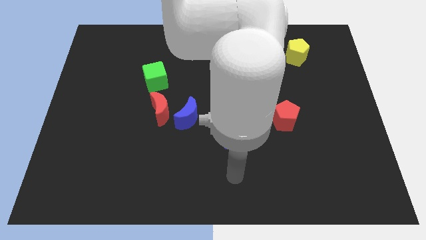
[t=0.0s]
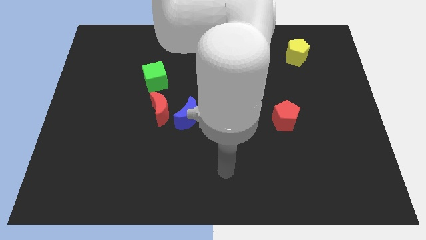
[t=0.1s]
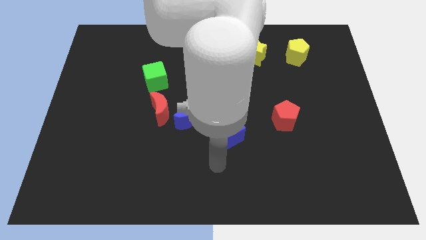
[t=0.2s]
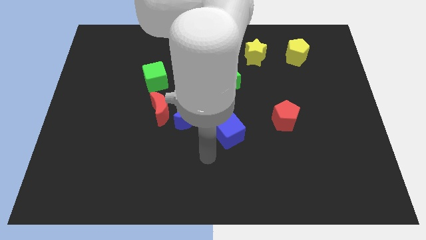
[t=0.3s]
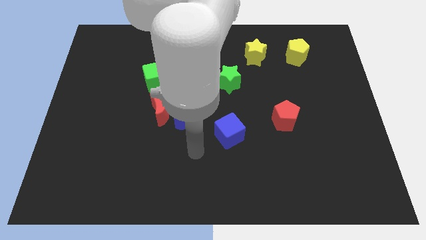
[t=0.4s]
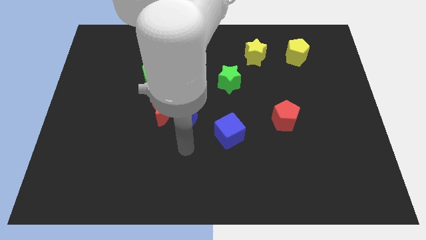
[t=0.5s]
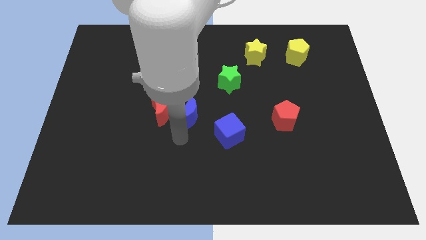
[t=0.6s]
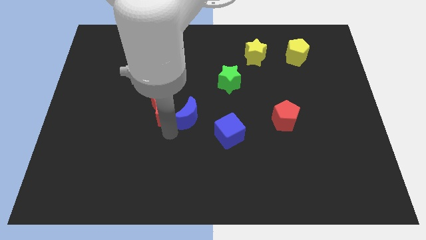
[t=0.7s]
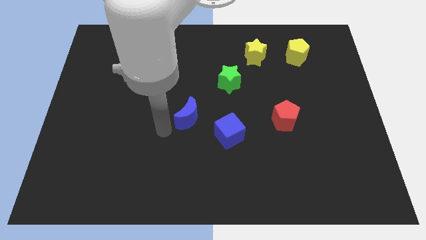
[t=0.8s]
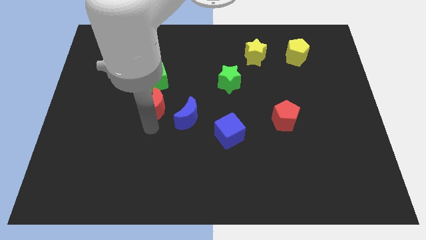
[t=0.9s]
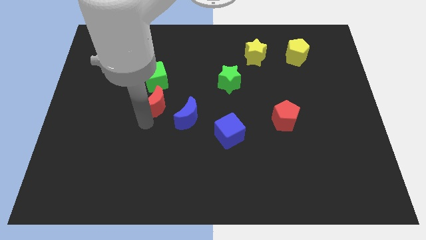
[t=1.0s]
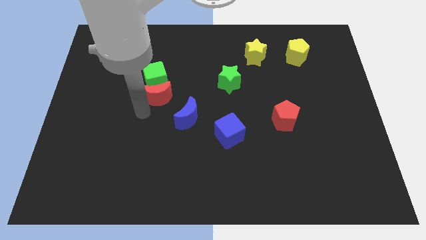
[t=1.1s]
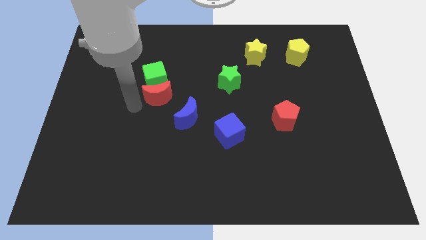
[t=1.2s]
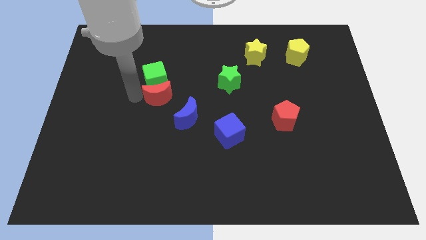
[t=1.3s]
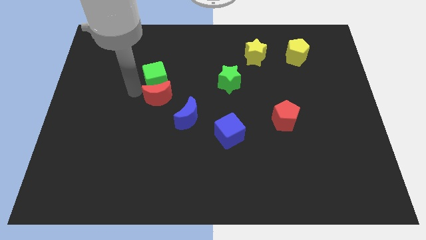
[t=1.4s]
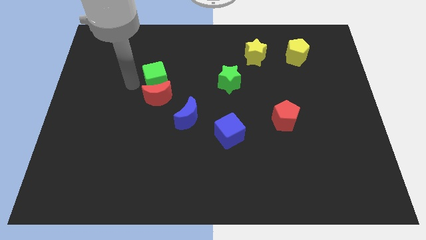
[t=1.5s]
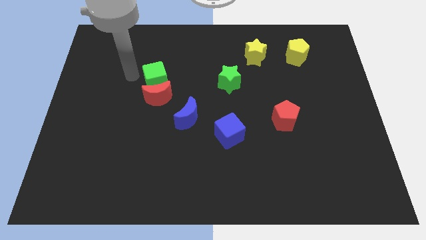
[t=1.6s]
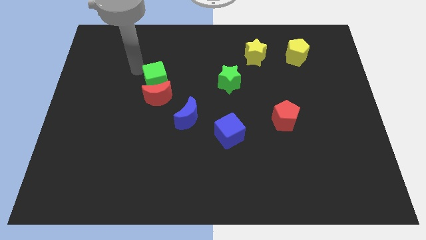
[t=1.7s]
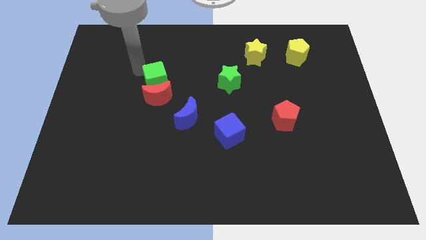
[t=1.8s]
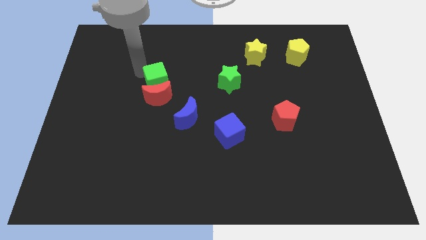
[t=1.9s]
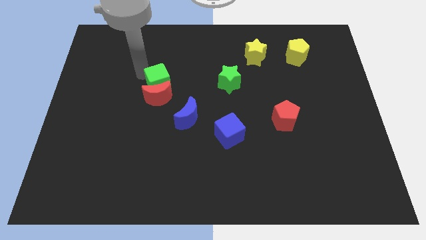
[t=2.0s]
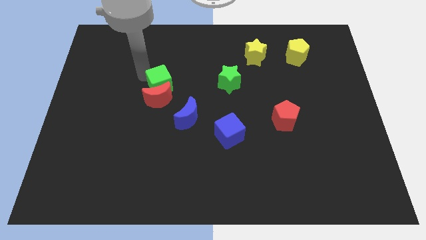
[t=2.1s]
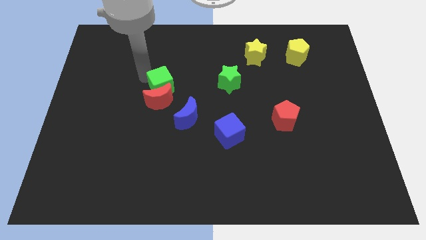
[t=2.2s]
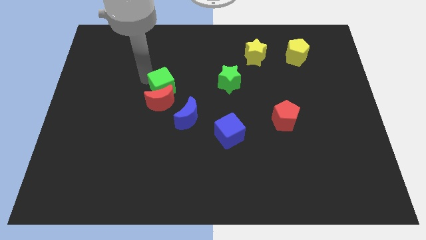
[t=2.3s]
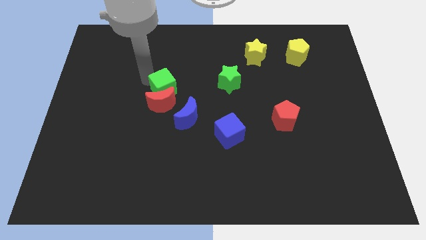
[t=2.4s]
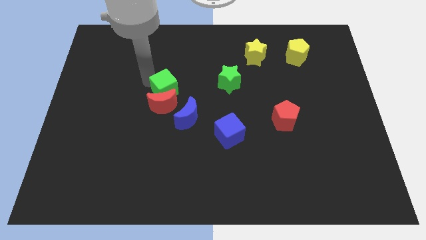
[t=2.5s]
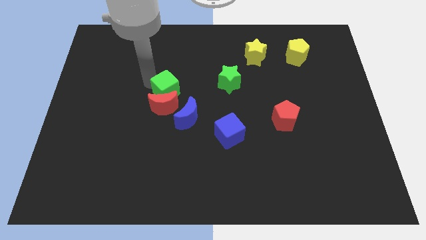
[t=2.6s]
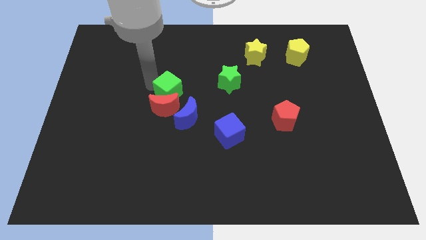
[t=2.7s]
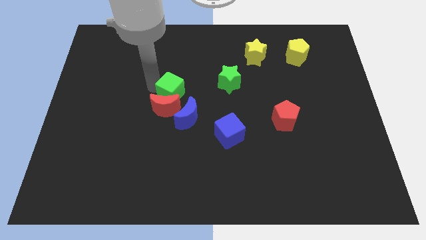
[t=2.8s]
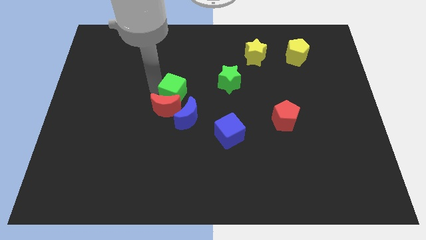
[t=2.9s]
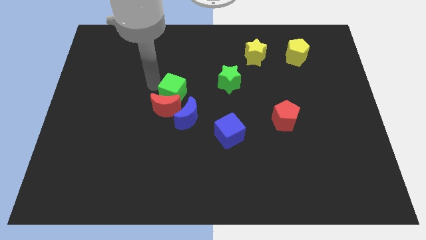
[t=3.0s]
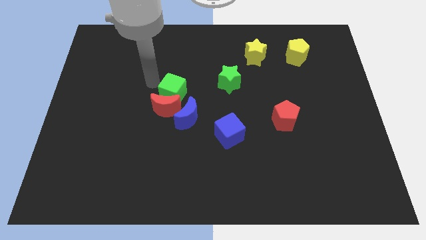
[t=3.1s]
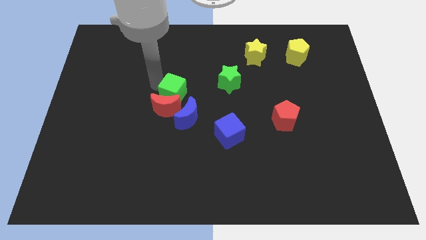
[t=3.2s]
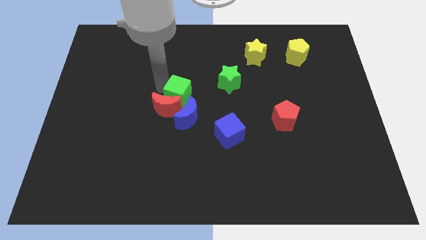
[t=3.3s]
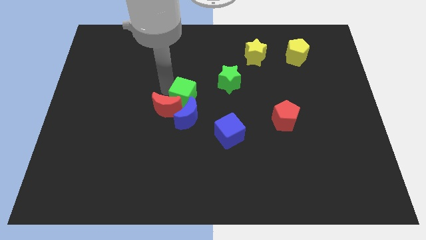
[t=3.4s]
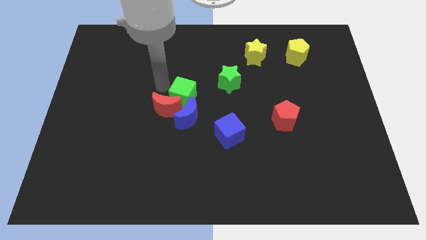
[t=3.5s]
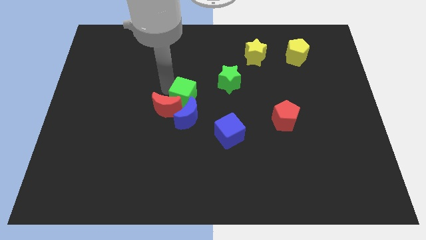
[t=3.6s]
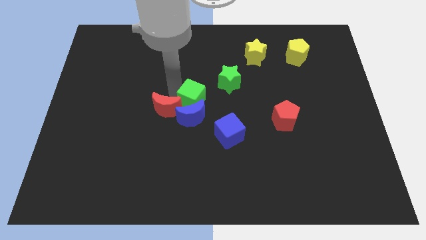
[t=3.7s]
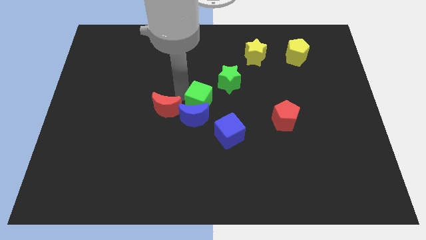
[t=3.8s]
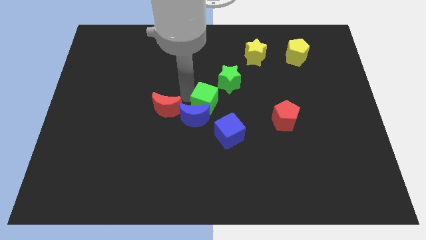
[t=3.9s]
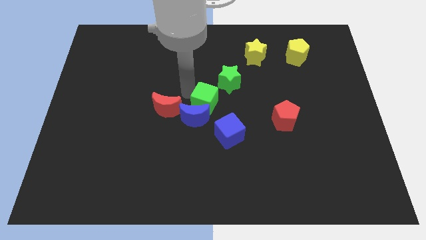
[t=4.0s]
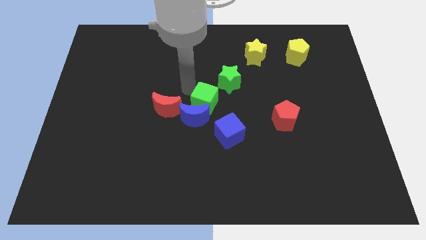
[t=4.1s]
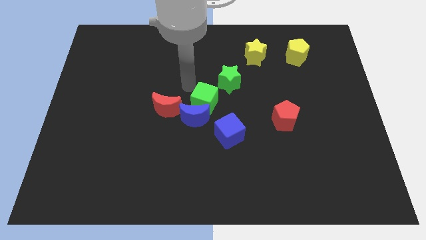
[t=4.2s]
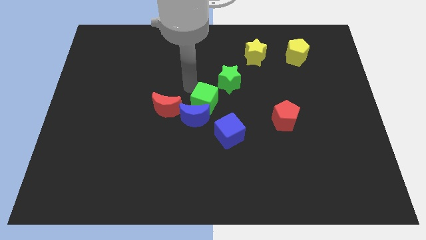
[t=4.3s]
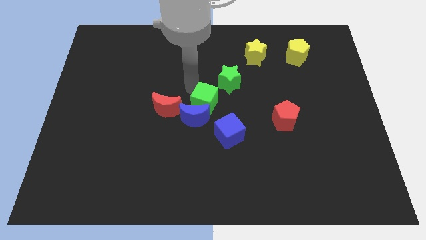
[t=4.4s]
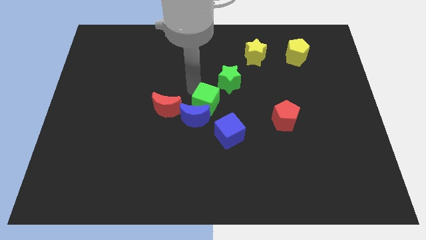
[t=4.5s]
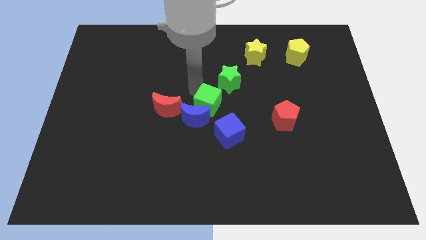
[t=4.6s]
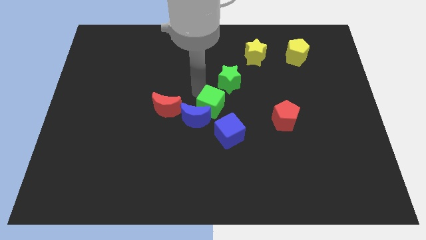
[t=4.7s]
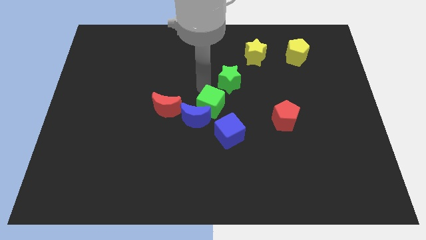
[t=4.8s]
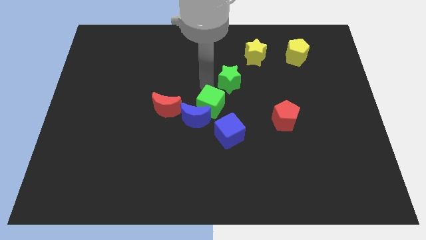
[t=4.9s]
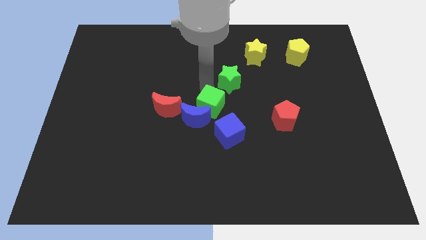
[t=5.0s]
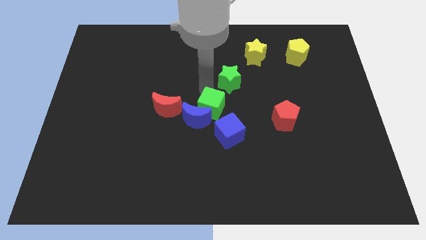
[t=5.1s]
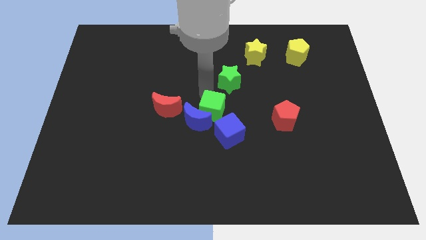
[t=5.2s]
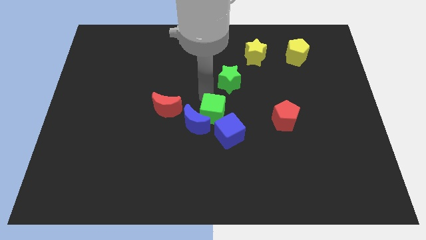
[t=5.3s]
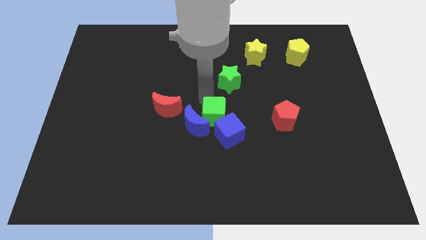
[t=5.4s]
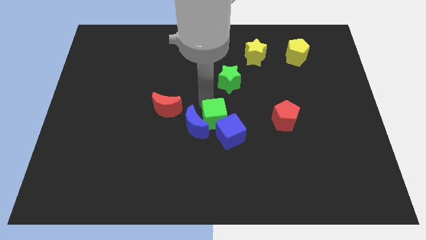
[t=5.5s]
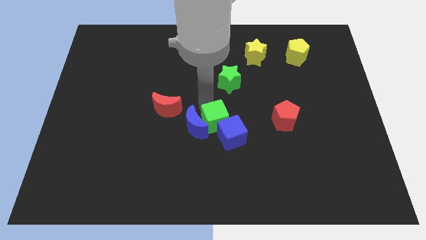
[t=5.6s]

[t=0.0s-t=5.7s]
move the green cube to the bottom right of the blue moon

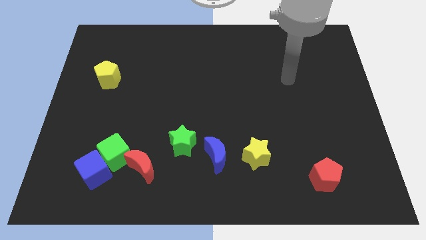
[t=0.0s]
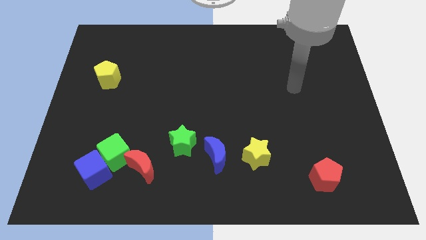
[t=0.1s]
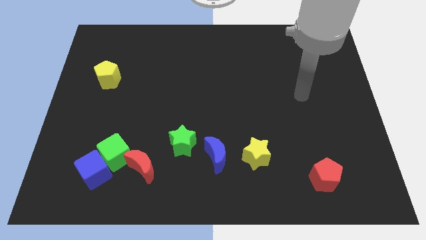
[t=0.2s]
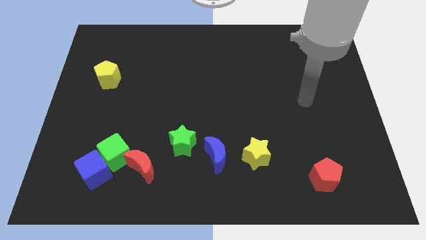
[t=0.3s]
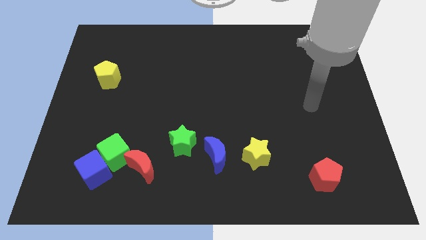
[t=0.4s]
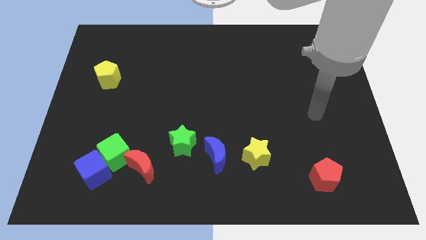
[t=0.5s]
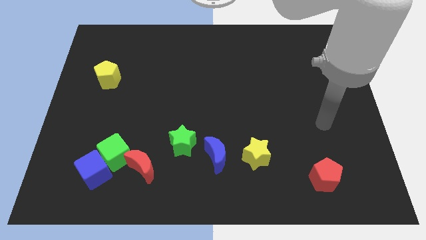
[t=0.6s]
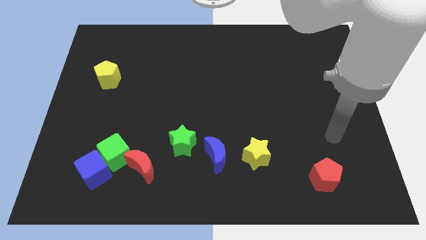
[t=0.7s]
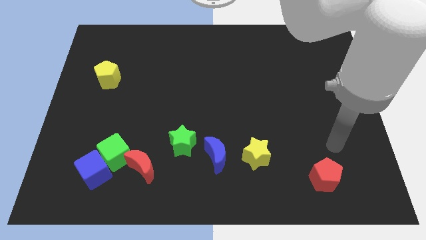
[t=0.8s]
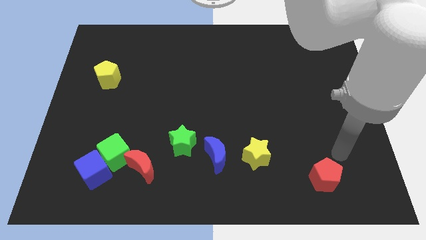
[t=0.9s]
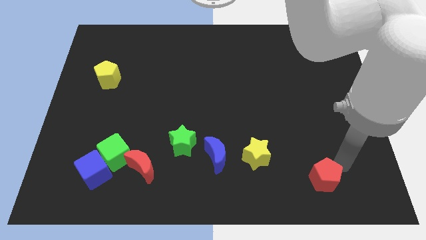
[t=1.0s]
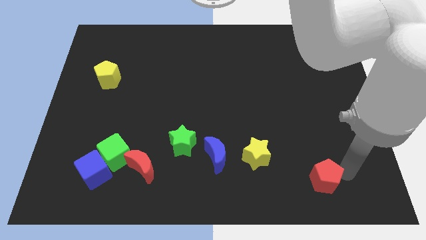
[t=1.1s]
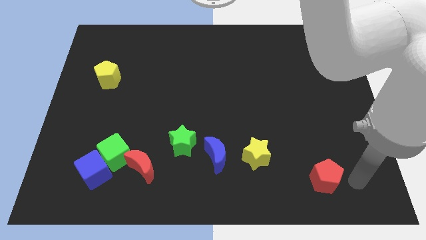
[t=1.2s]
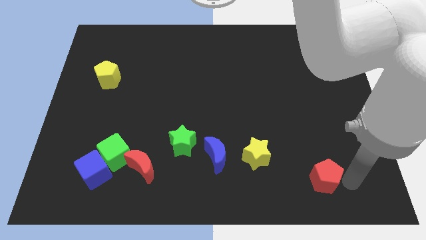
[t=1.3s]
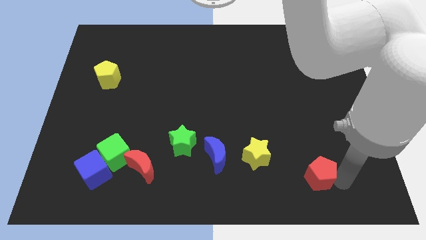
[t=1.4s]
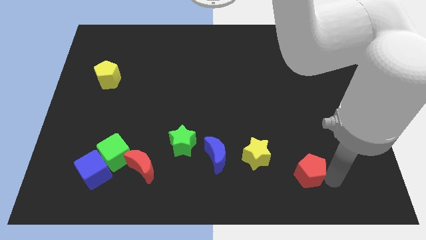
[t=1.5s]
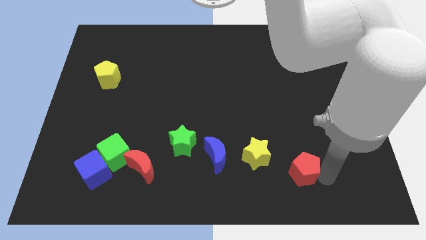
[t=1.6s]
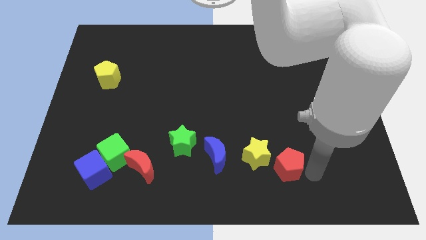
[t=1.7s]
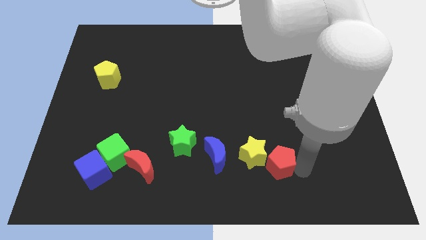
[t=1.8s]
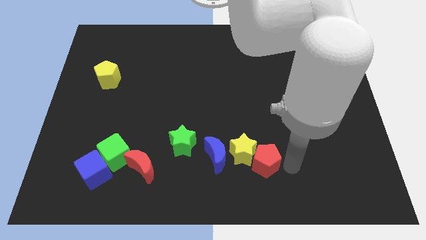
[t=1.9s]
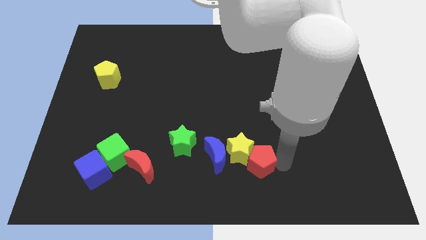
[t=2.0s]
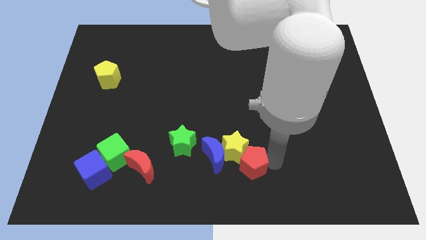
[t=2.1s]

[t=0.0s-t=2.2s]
push the red pentagon to the bottom right of the blue moon
